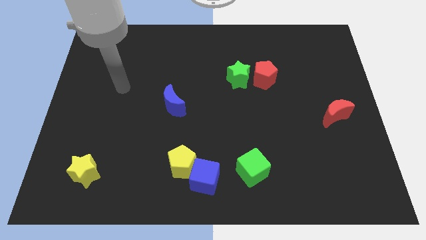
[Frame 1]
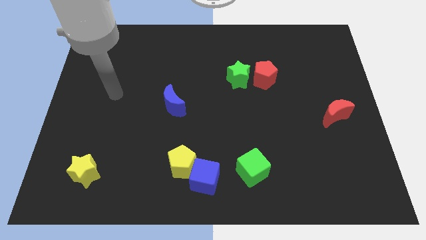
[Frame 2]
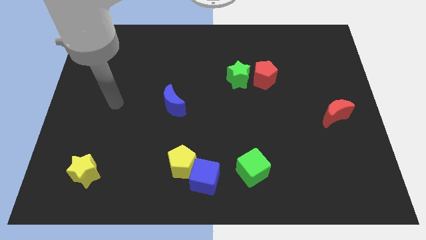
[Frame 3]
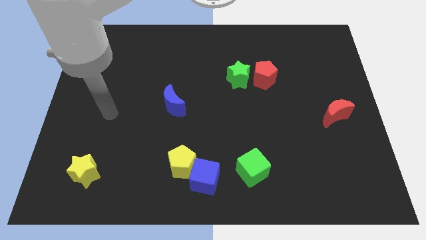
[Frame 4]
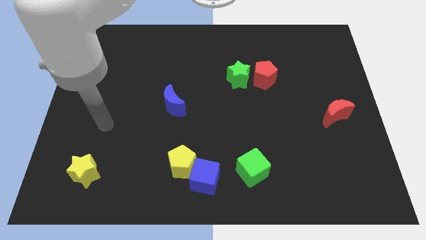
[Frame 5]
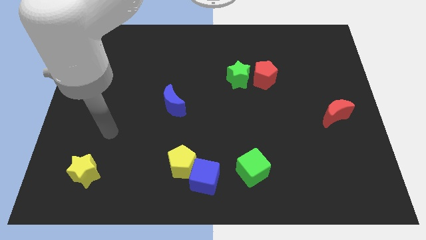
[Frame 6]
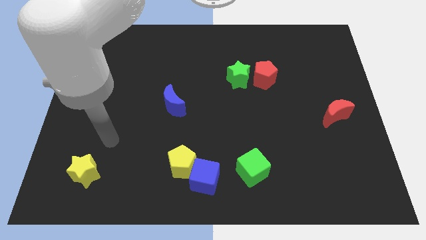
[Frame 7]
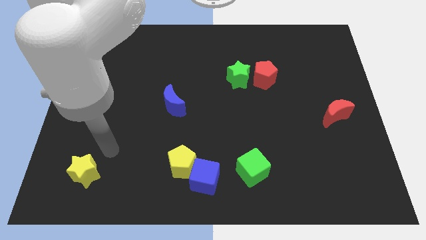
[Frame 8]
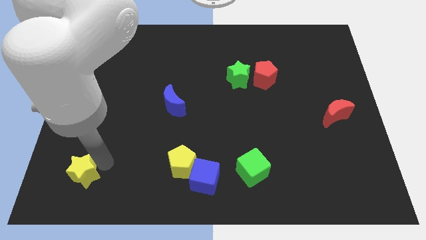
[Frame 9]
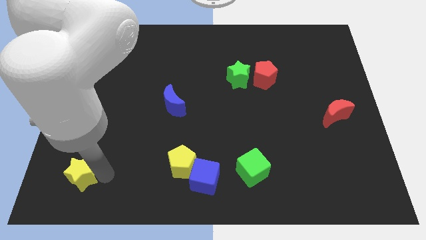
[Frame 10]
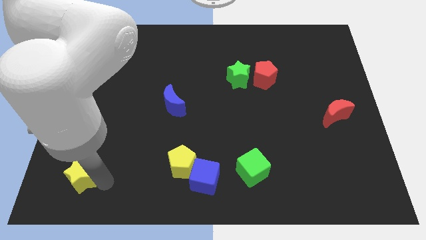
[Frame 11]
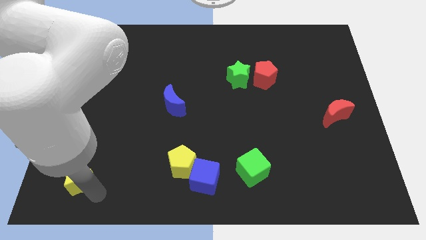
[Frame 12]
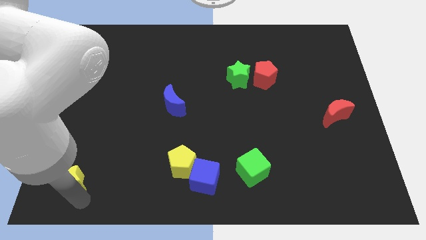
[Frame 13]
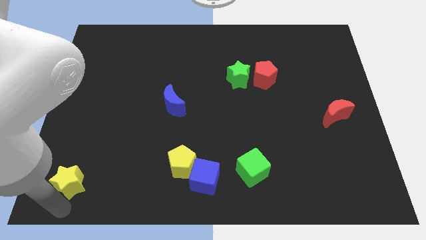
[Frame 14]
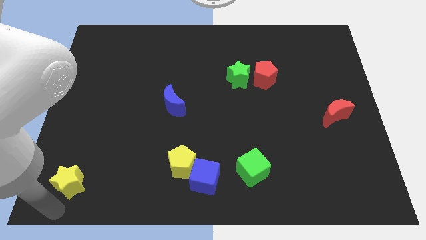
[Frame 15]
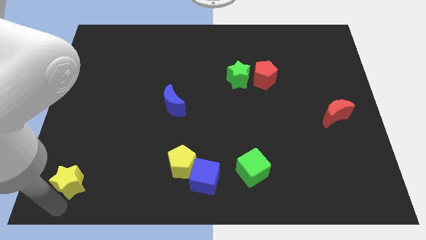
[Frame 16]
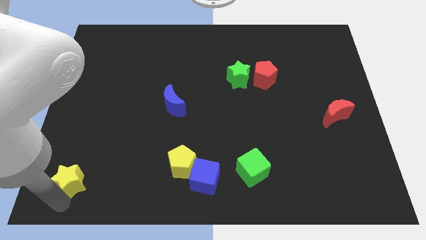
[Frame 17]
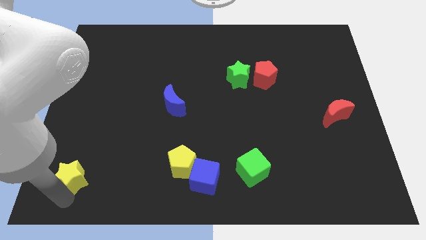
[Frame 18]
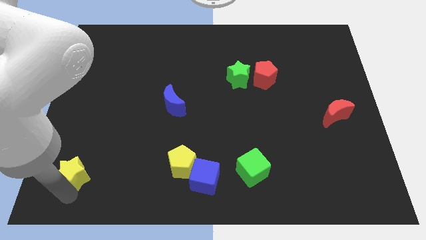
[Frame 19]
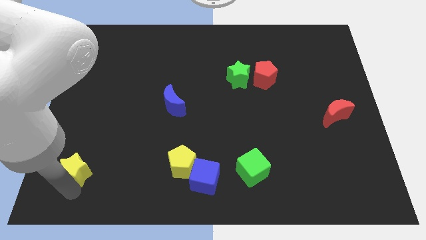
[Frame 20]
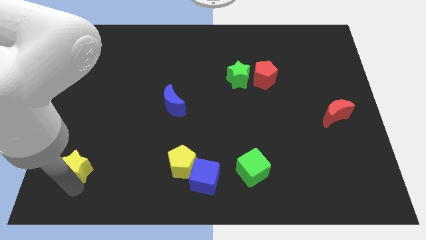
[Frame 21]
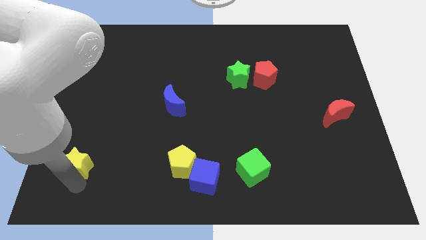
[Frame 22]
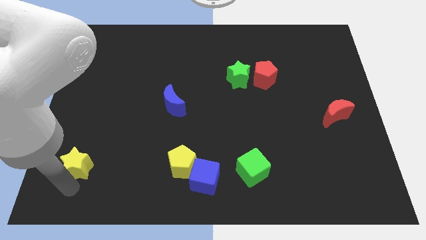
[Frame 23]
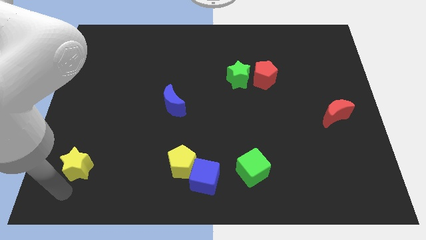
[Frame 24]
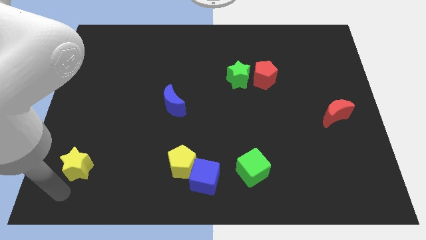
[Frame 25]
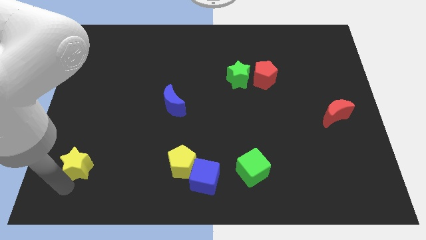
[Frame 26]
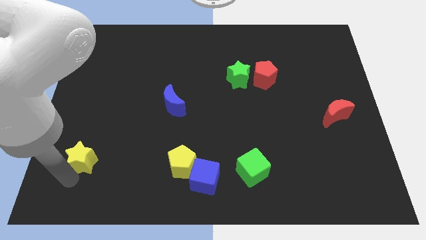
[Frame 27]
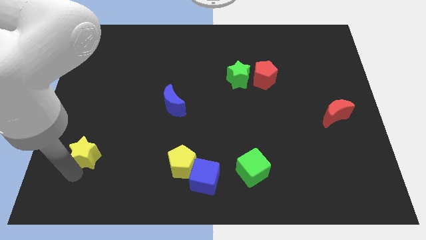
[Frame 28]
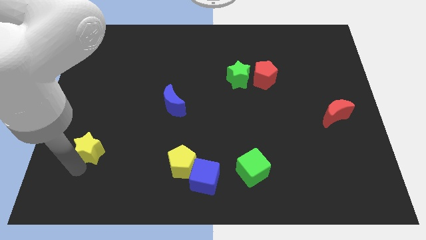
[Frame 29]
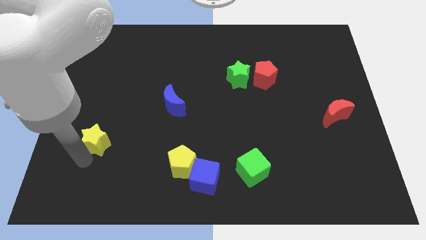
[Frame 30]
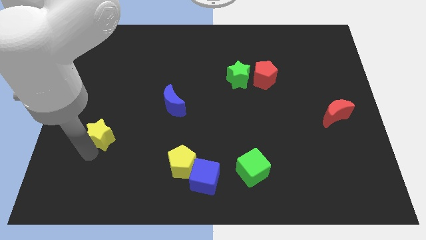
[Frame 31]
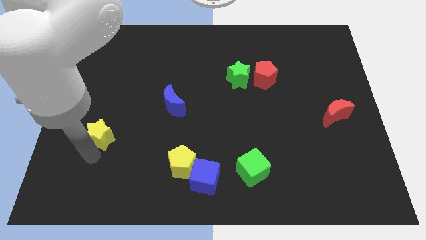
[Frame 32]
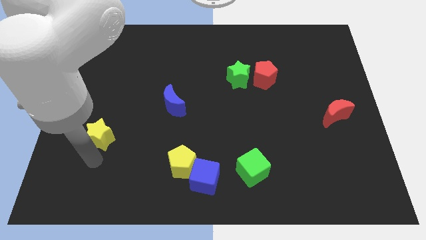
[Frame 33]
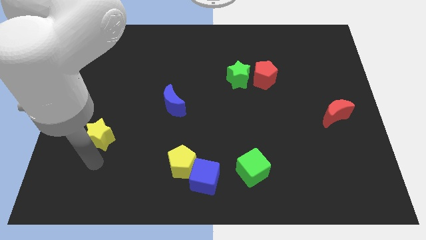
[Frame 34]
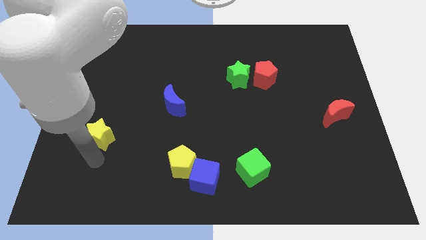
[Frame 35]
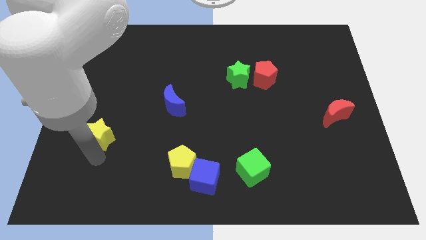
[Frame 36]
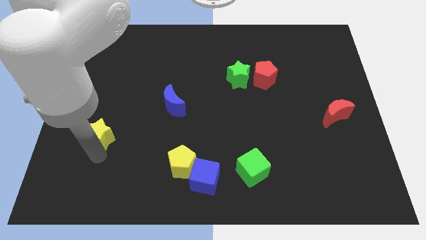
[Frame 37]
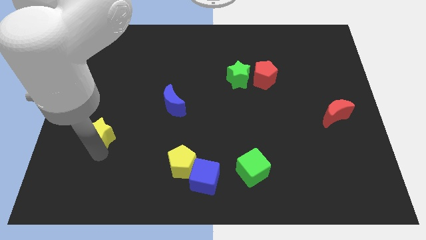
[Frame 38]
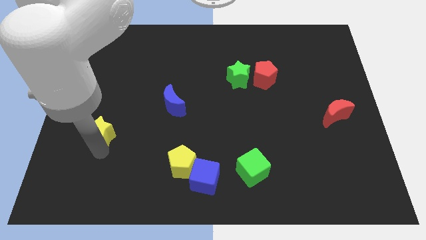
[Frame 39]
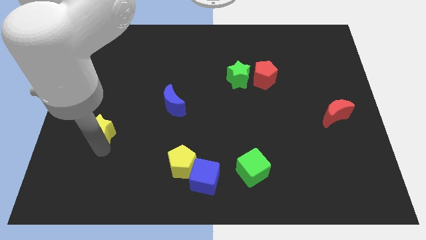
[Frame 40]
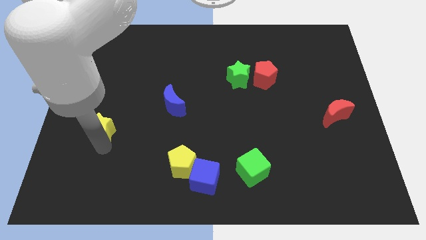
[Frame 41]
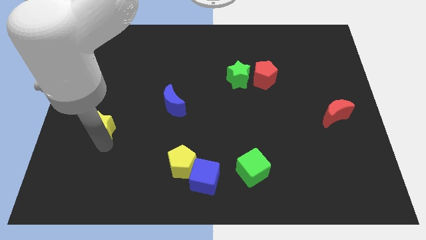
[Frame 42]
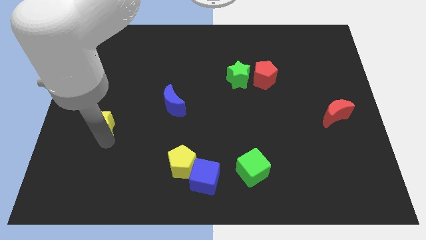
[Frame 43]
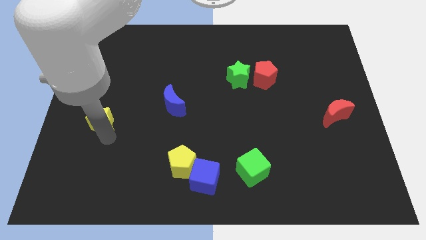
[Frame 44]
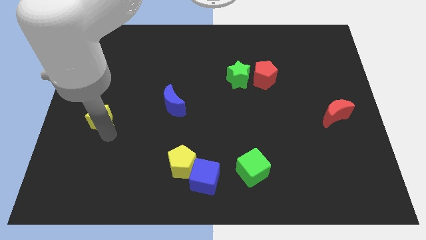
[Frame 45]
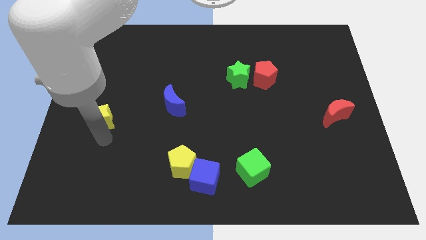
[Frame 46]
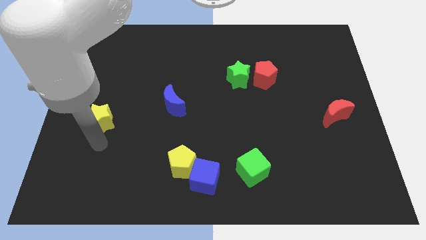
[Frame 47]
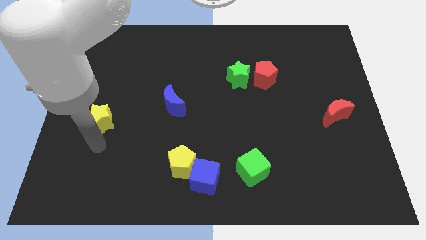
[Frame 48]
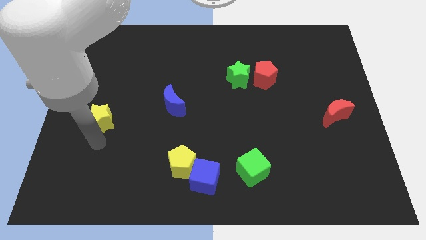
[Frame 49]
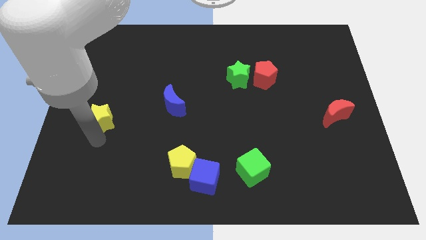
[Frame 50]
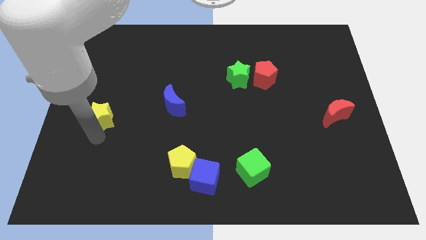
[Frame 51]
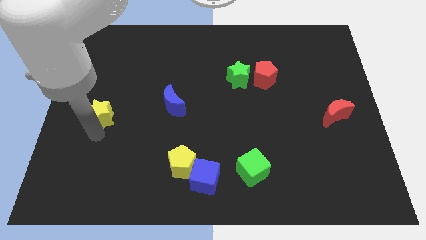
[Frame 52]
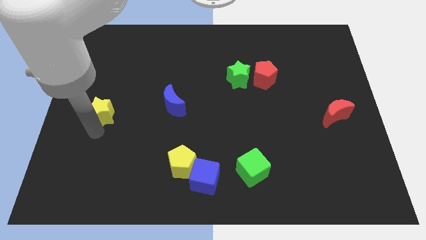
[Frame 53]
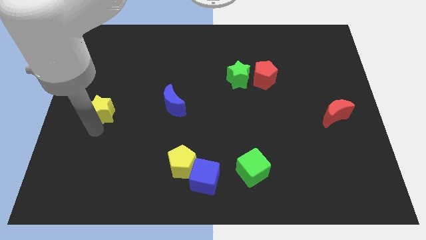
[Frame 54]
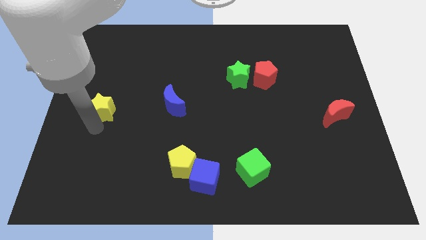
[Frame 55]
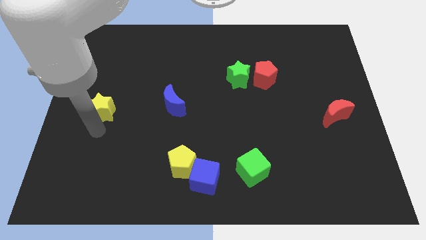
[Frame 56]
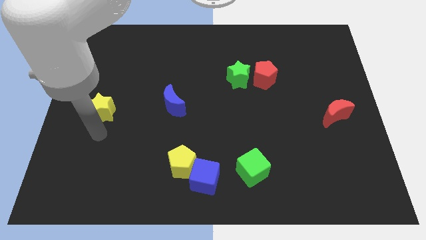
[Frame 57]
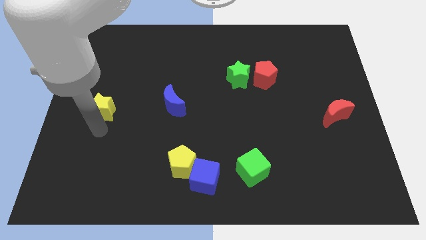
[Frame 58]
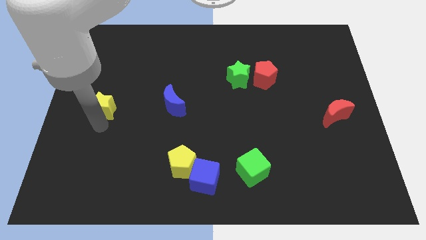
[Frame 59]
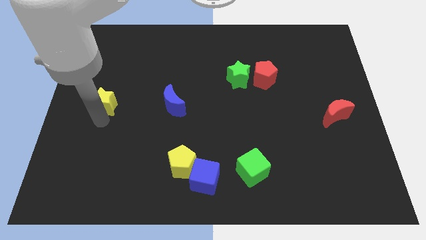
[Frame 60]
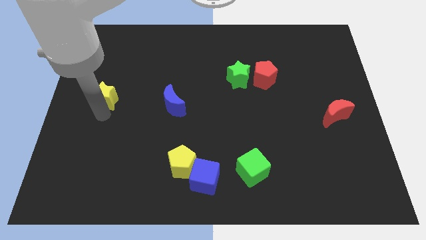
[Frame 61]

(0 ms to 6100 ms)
push the yellow star upwards

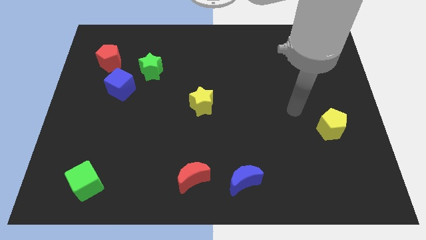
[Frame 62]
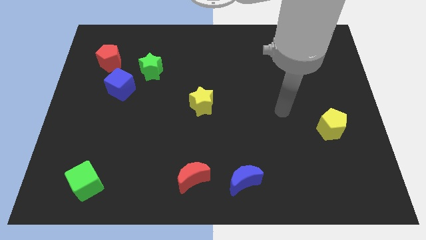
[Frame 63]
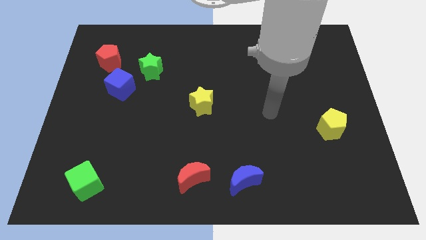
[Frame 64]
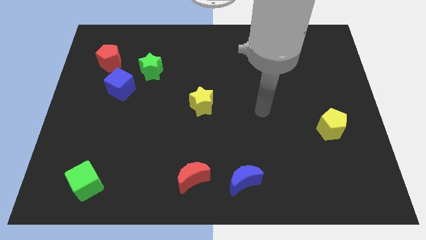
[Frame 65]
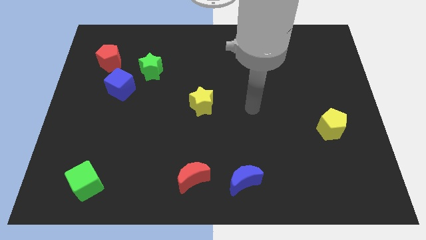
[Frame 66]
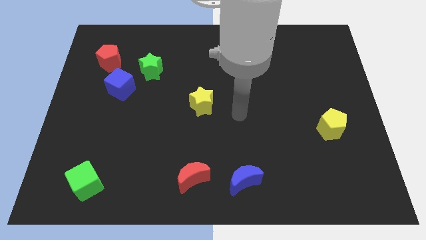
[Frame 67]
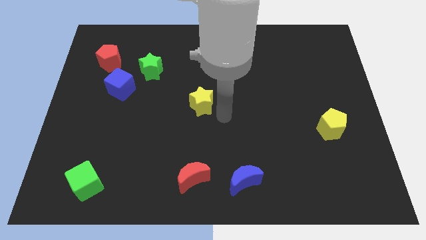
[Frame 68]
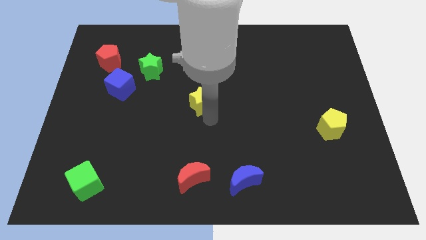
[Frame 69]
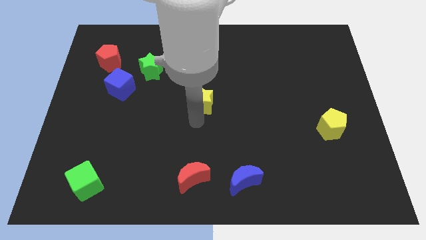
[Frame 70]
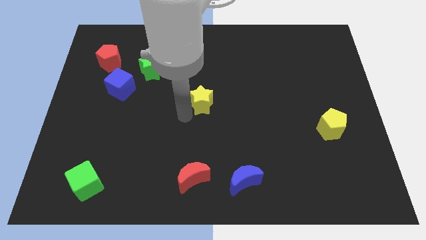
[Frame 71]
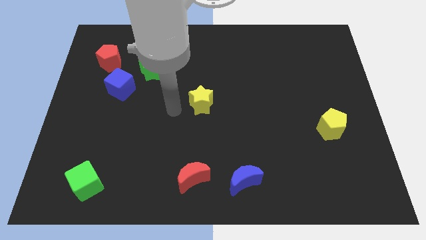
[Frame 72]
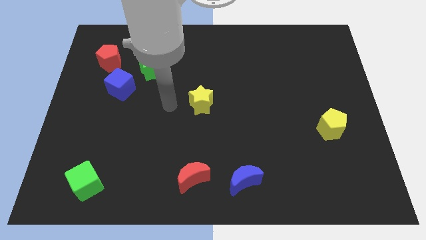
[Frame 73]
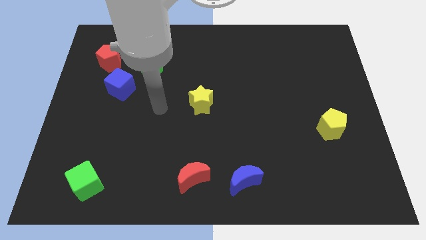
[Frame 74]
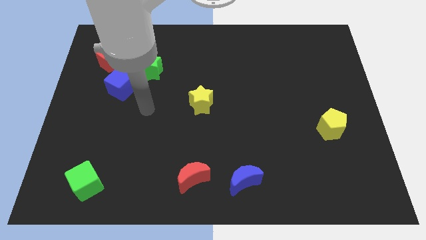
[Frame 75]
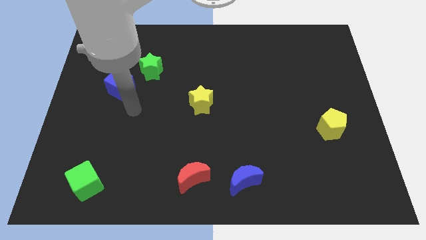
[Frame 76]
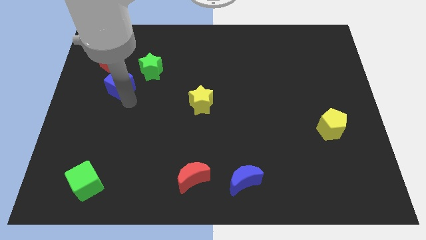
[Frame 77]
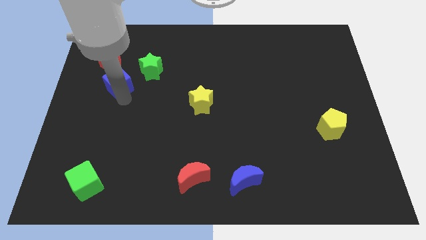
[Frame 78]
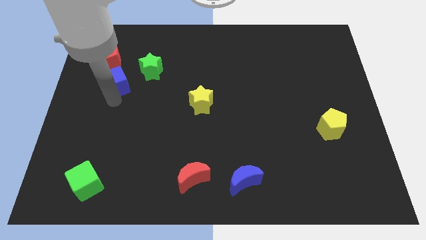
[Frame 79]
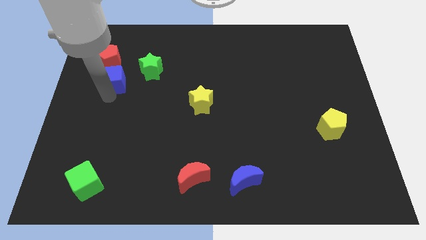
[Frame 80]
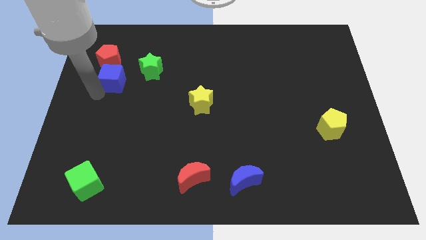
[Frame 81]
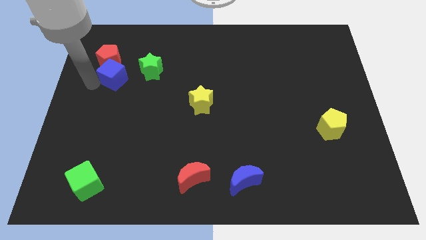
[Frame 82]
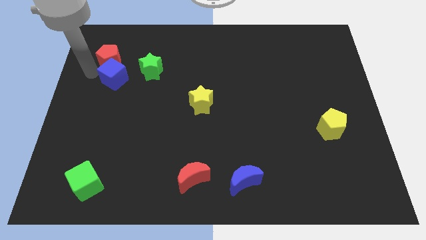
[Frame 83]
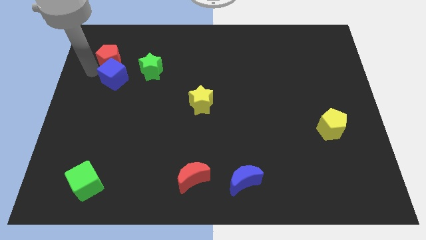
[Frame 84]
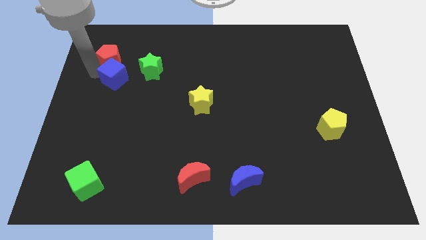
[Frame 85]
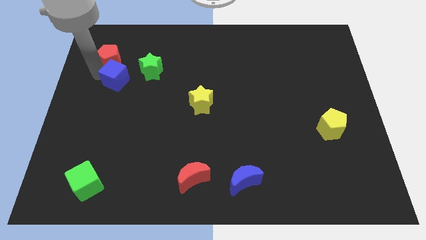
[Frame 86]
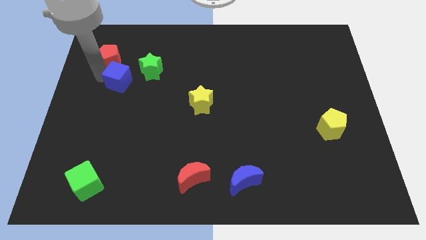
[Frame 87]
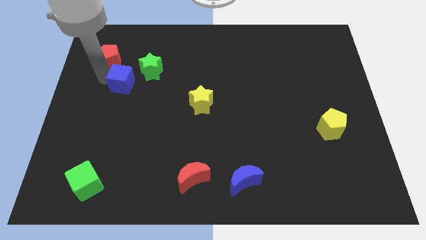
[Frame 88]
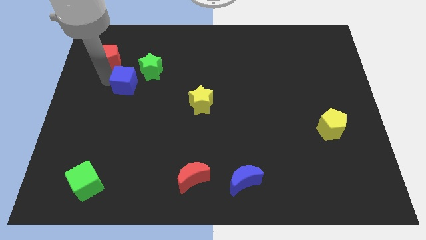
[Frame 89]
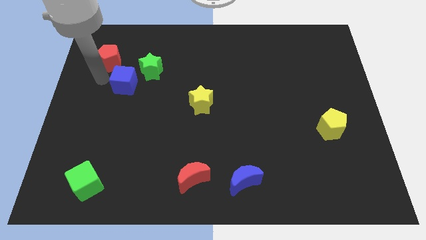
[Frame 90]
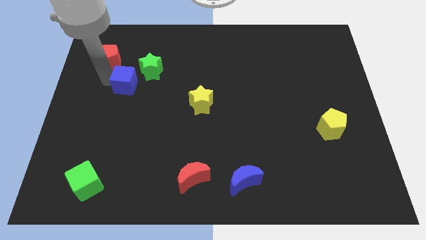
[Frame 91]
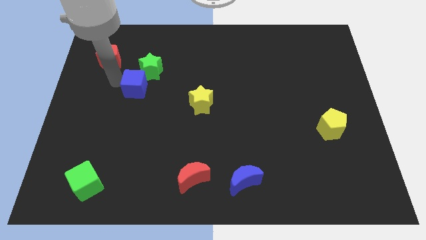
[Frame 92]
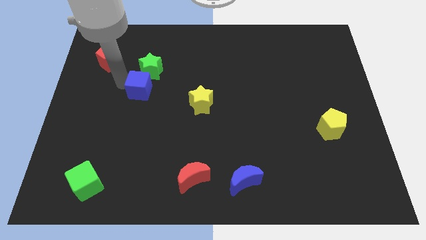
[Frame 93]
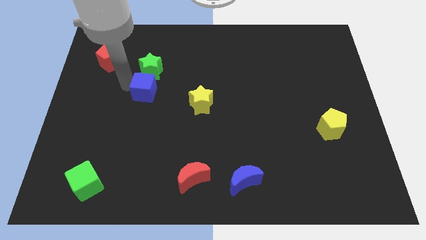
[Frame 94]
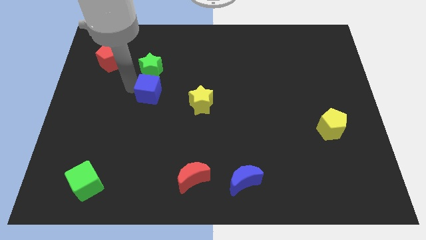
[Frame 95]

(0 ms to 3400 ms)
push the blue cube slightly to the right
